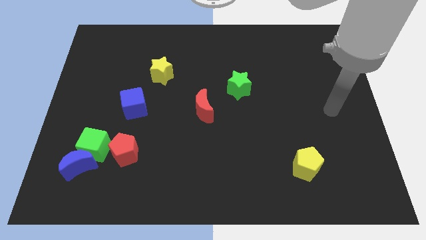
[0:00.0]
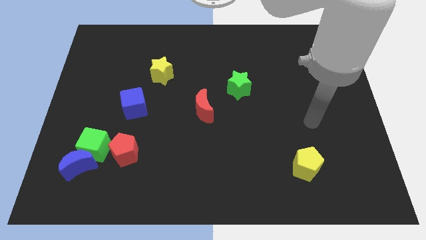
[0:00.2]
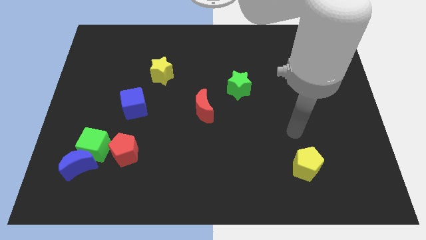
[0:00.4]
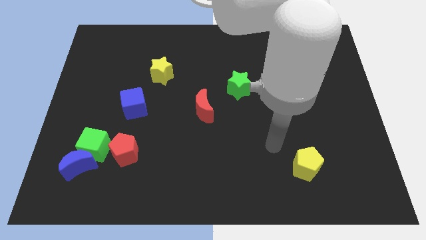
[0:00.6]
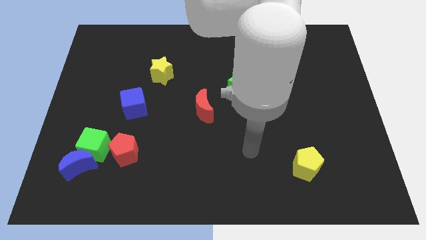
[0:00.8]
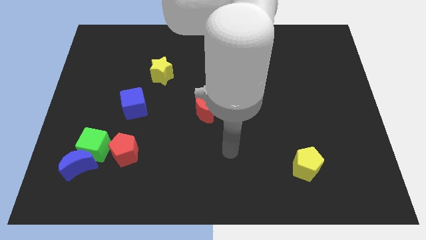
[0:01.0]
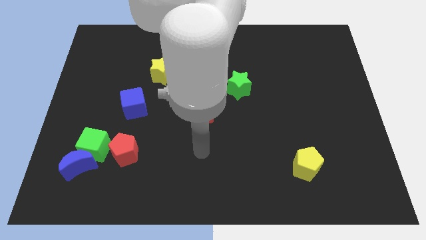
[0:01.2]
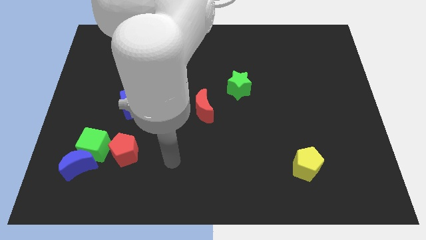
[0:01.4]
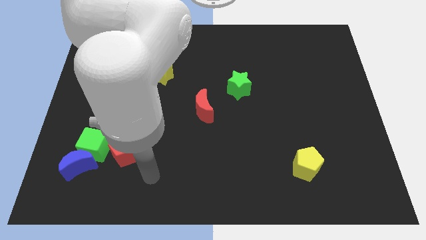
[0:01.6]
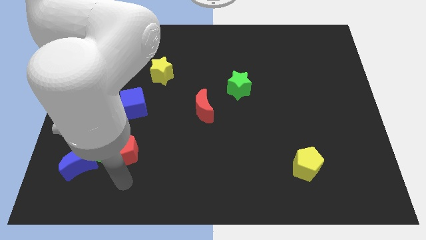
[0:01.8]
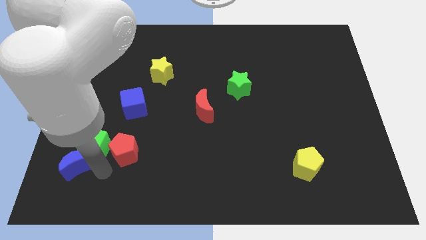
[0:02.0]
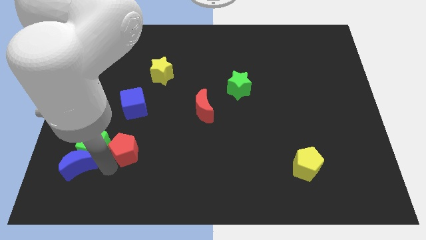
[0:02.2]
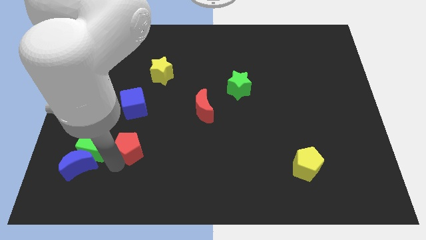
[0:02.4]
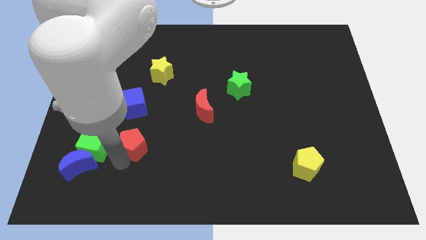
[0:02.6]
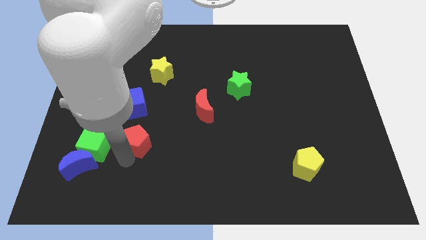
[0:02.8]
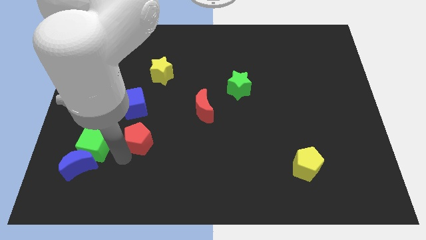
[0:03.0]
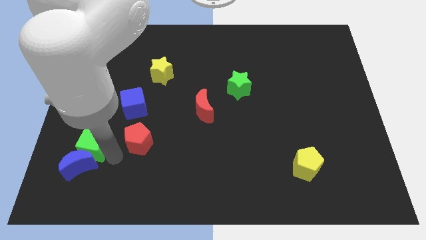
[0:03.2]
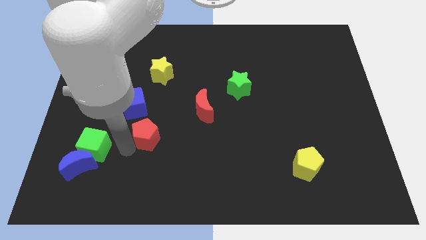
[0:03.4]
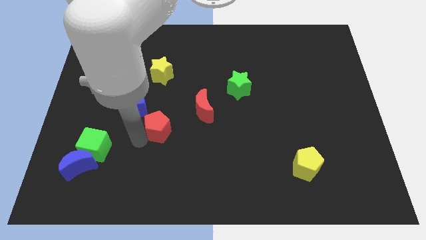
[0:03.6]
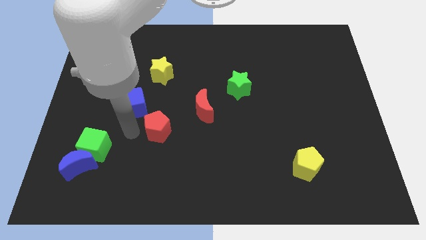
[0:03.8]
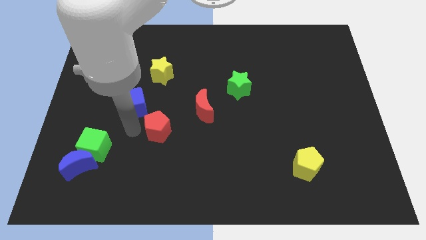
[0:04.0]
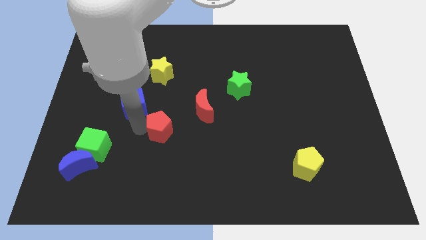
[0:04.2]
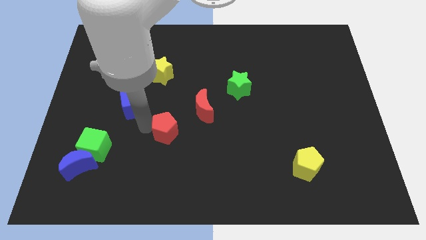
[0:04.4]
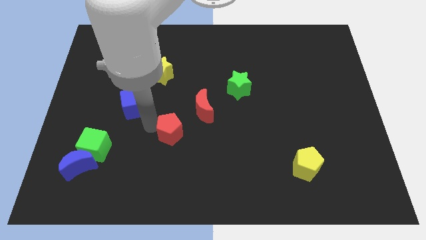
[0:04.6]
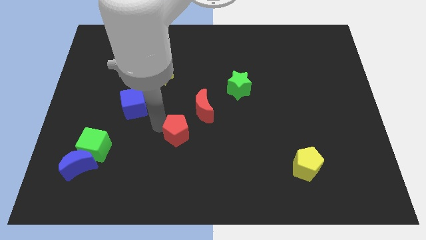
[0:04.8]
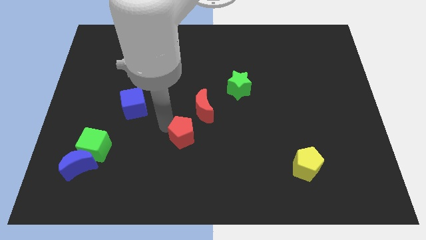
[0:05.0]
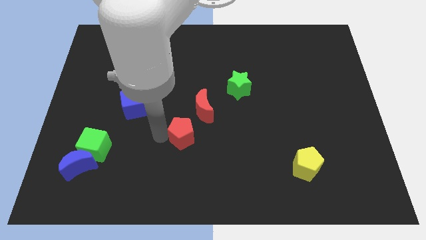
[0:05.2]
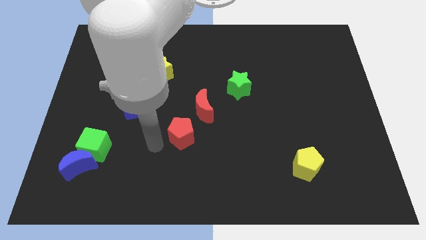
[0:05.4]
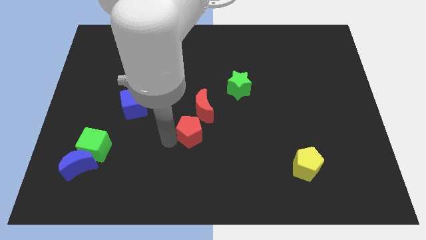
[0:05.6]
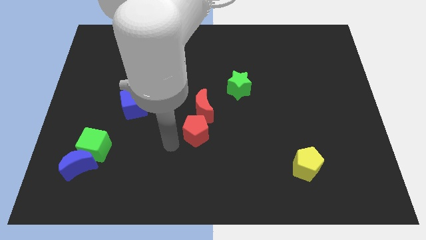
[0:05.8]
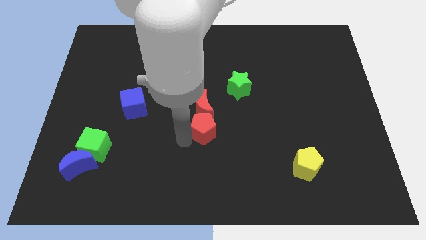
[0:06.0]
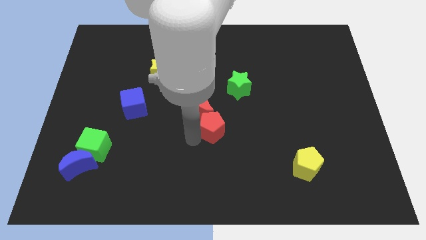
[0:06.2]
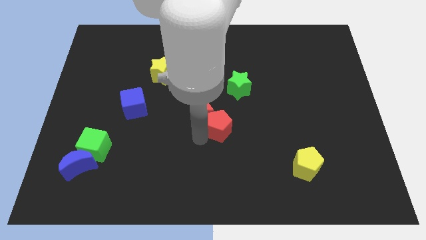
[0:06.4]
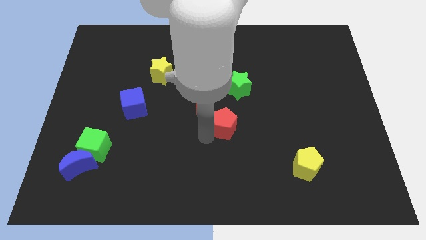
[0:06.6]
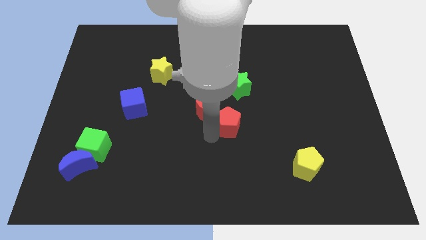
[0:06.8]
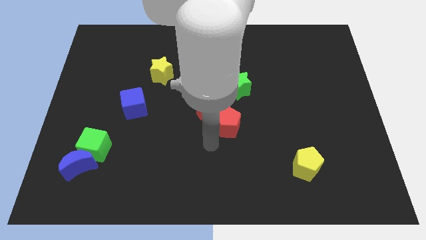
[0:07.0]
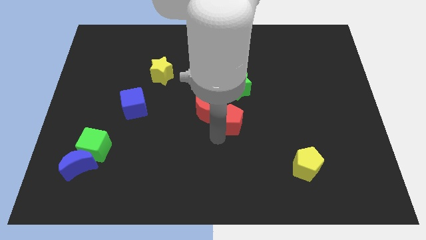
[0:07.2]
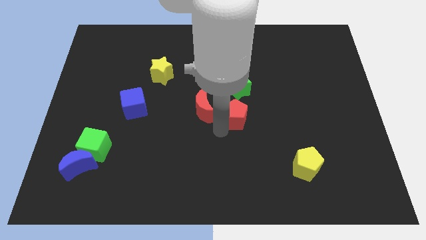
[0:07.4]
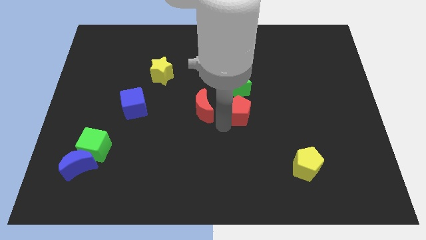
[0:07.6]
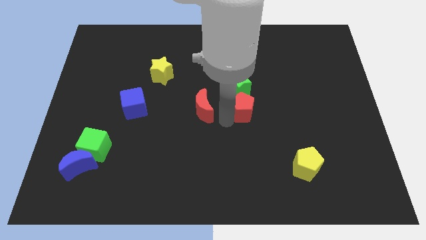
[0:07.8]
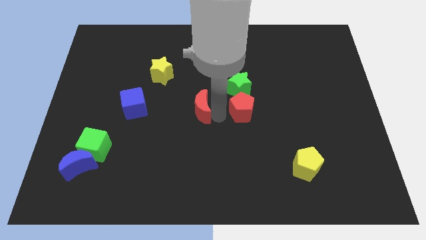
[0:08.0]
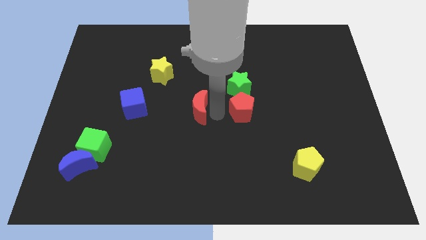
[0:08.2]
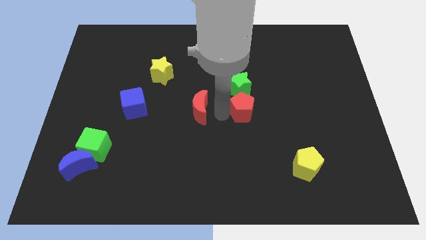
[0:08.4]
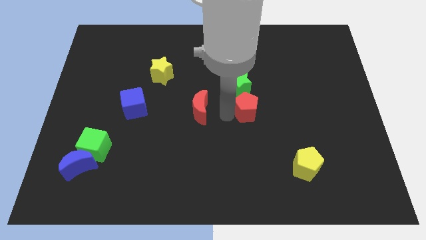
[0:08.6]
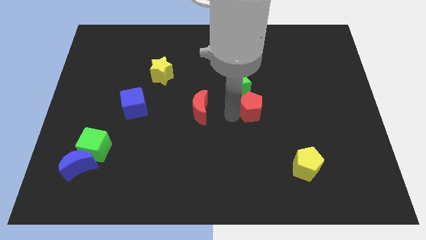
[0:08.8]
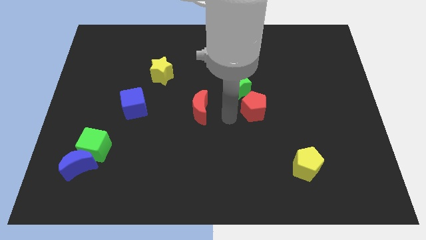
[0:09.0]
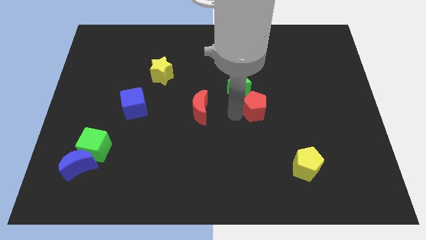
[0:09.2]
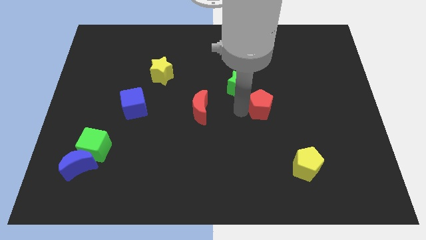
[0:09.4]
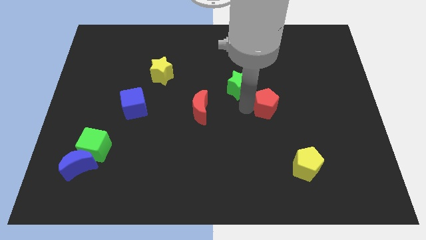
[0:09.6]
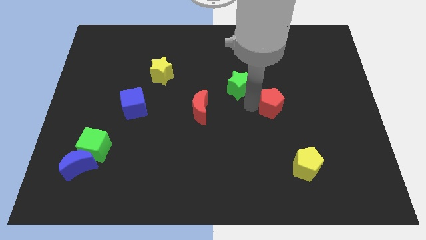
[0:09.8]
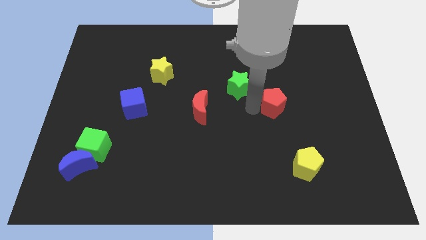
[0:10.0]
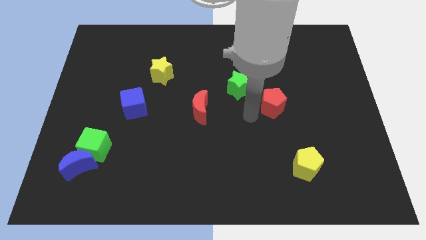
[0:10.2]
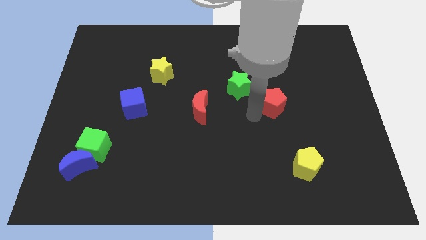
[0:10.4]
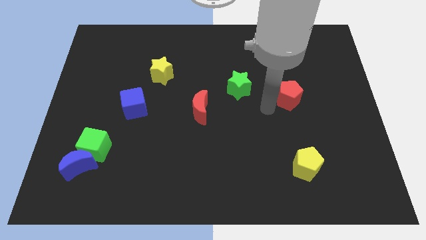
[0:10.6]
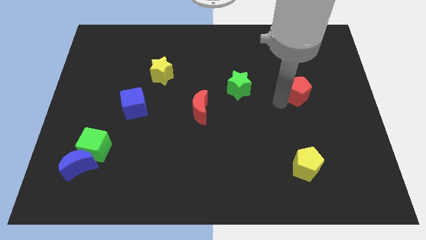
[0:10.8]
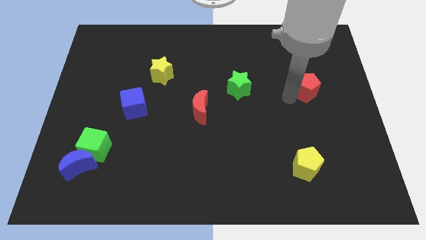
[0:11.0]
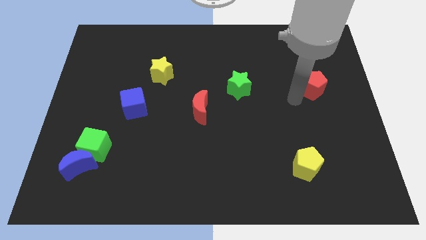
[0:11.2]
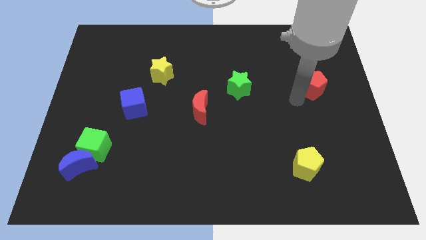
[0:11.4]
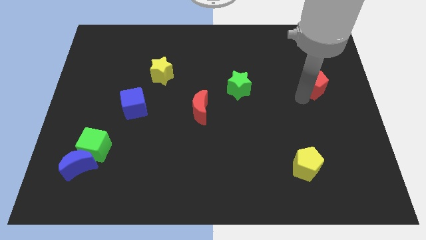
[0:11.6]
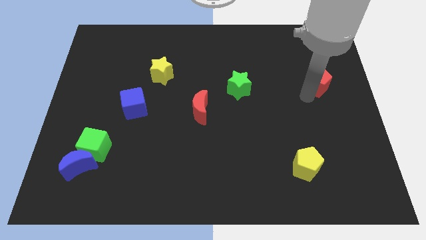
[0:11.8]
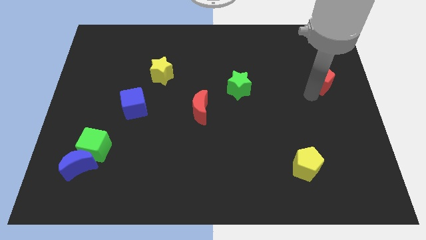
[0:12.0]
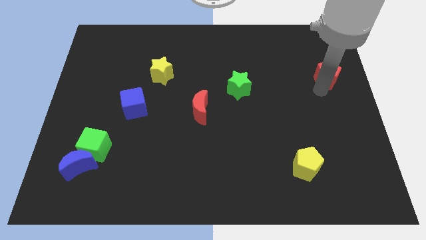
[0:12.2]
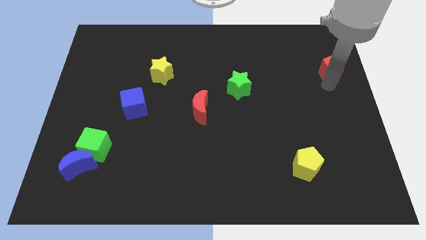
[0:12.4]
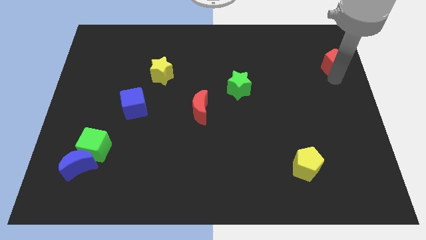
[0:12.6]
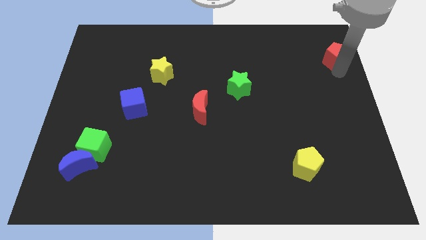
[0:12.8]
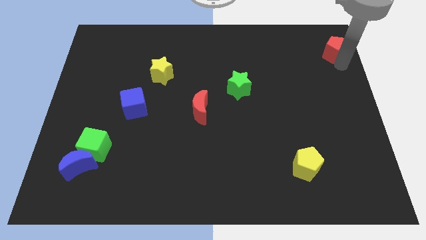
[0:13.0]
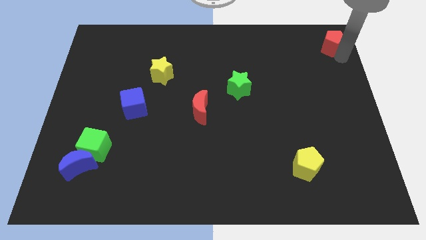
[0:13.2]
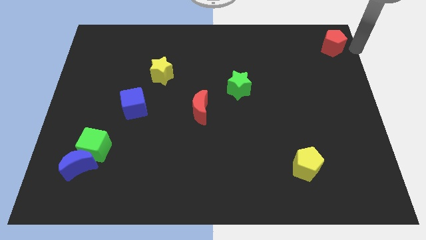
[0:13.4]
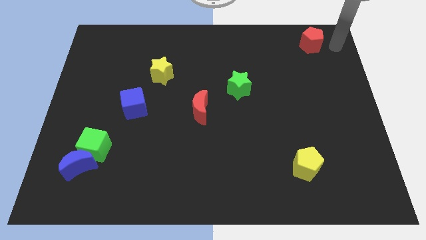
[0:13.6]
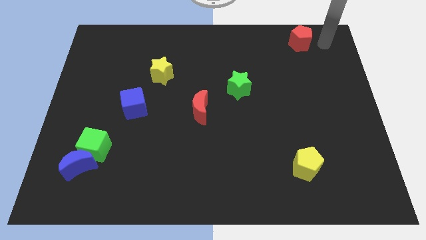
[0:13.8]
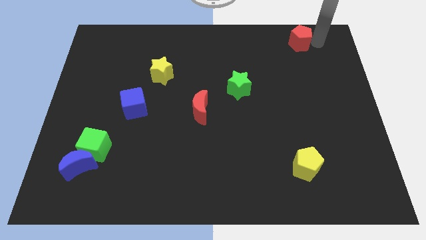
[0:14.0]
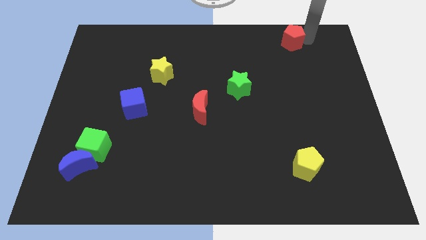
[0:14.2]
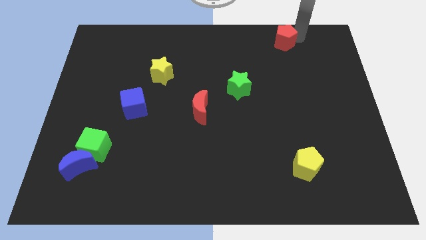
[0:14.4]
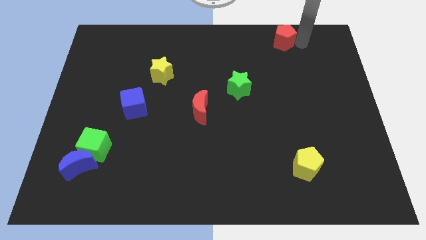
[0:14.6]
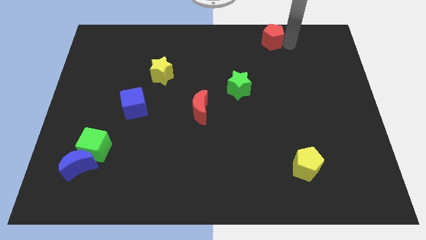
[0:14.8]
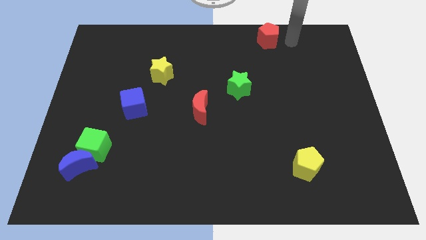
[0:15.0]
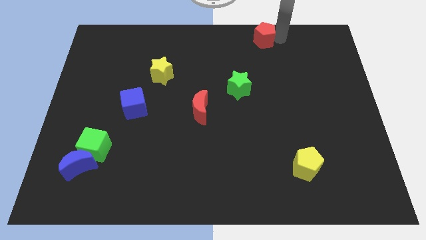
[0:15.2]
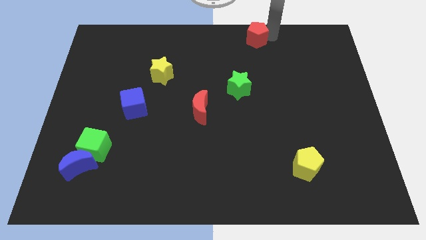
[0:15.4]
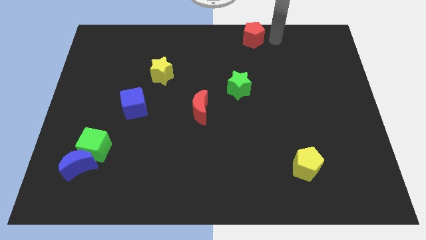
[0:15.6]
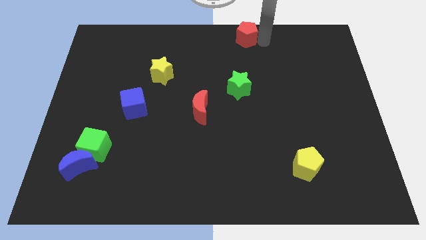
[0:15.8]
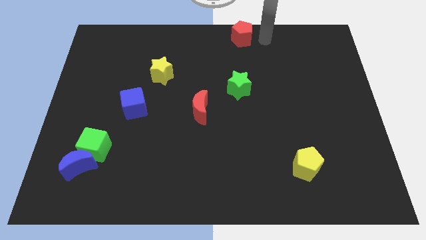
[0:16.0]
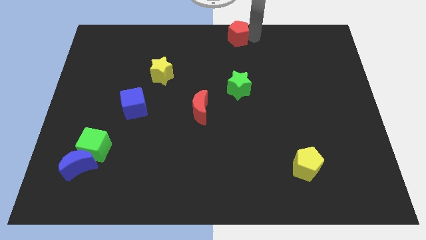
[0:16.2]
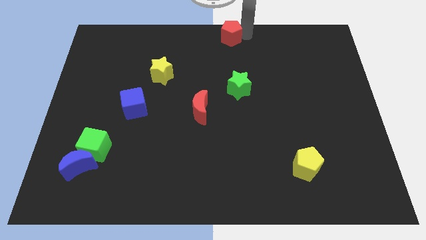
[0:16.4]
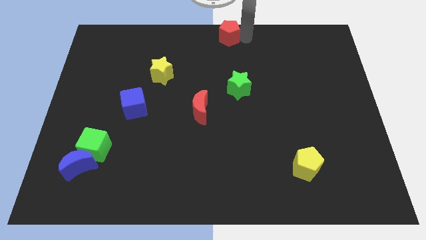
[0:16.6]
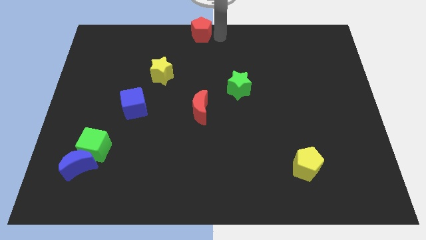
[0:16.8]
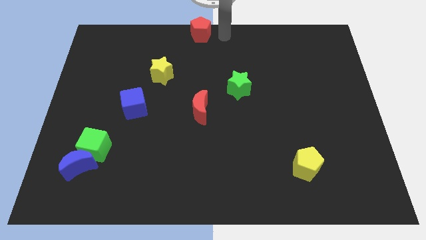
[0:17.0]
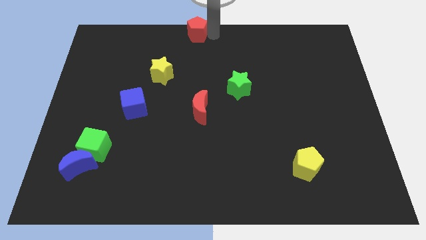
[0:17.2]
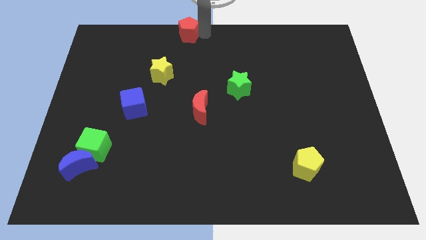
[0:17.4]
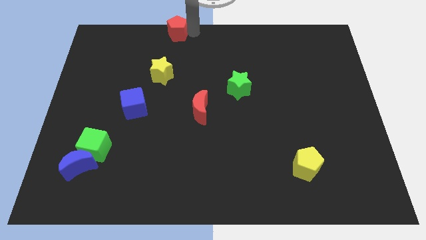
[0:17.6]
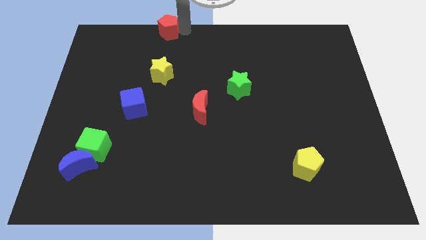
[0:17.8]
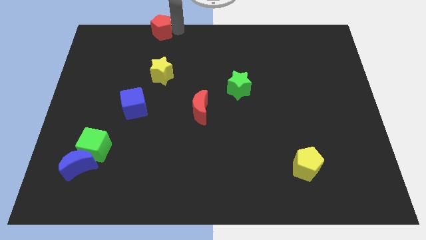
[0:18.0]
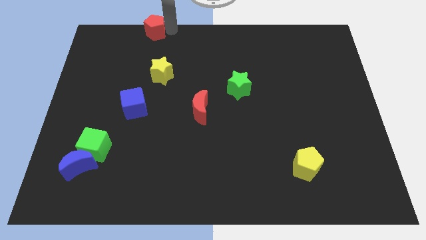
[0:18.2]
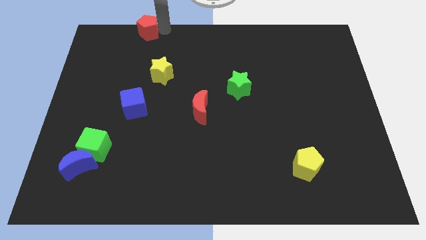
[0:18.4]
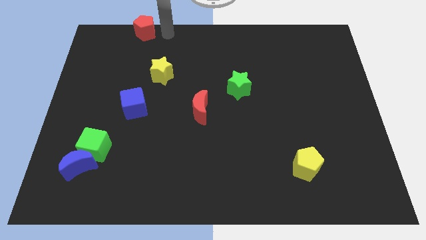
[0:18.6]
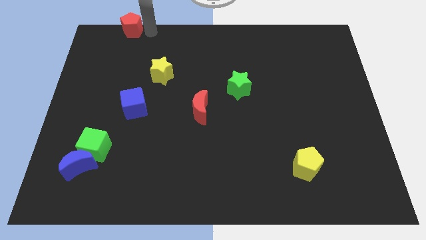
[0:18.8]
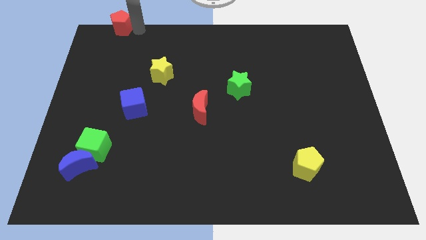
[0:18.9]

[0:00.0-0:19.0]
slide the red pentagon to the top left of the board
